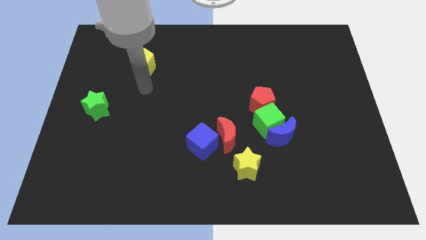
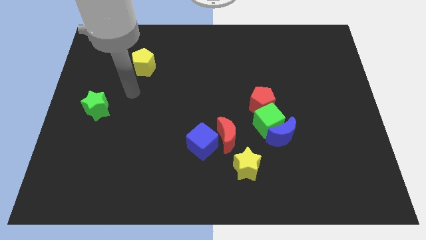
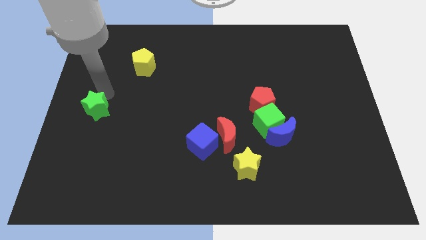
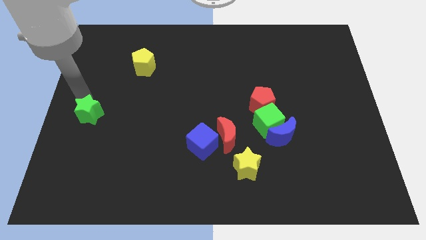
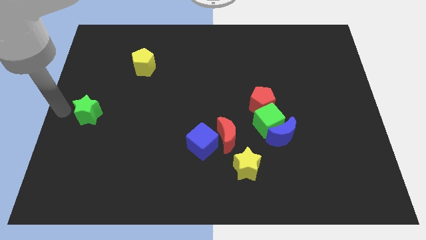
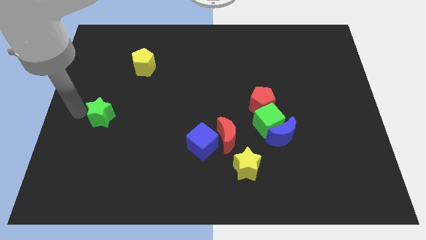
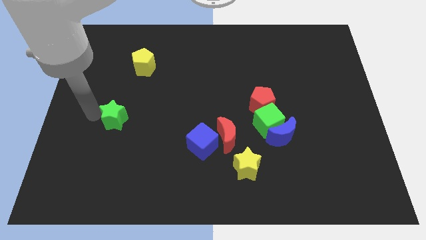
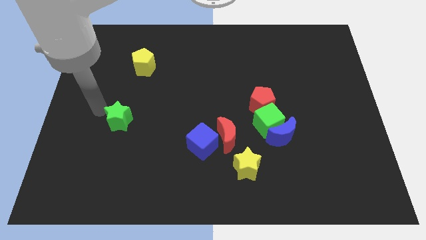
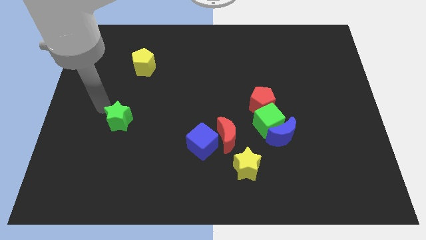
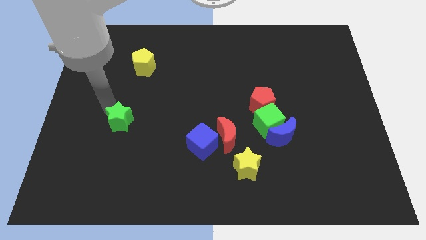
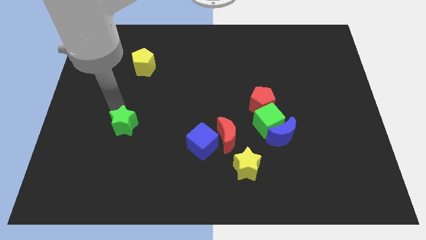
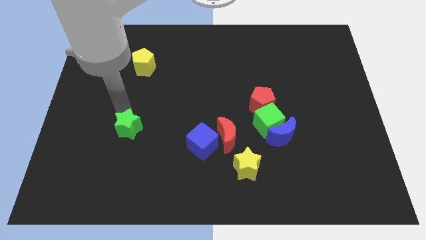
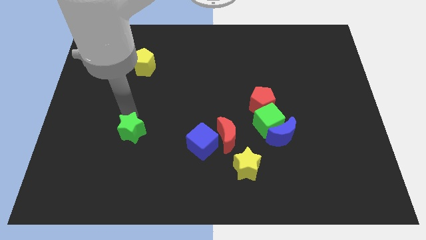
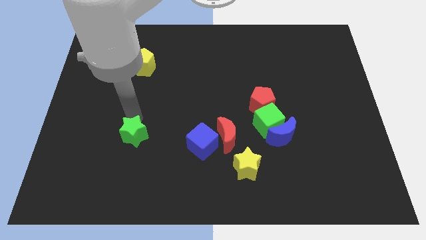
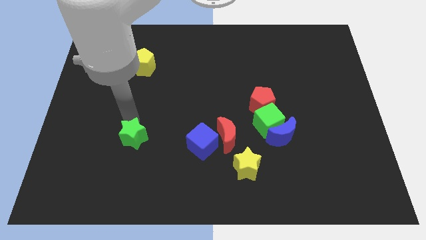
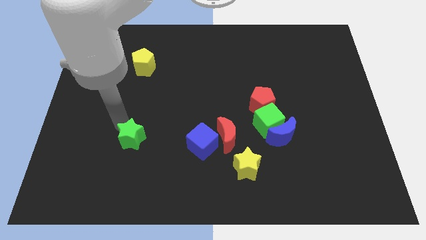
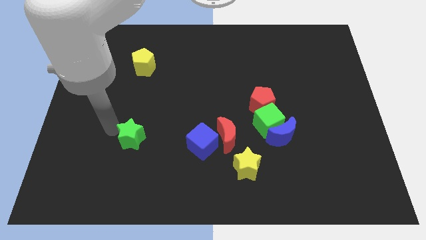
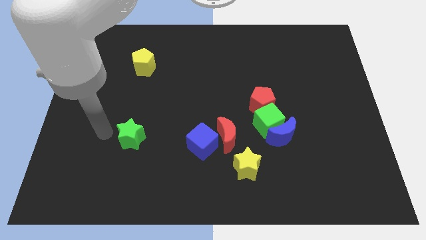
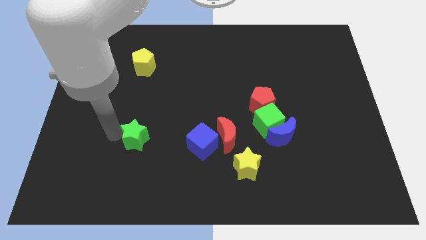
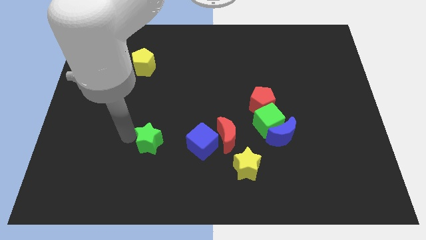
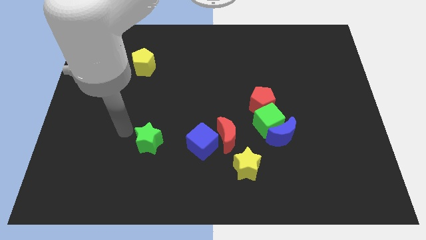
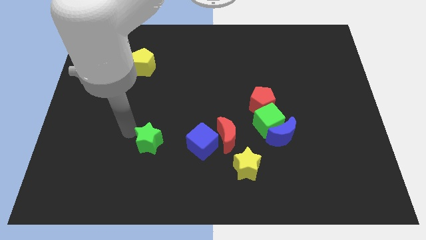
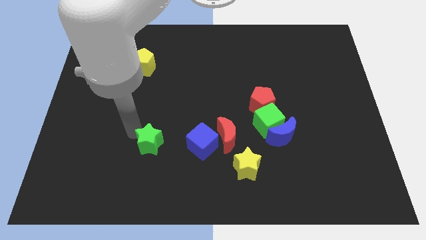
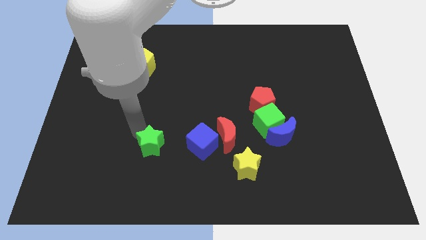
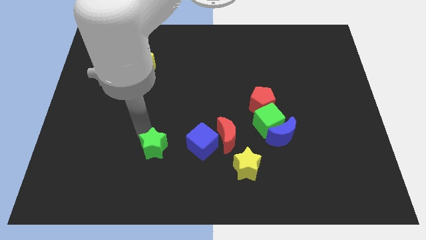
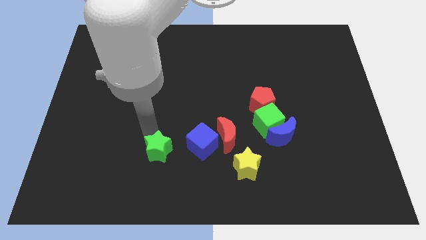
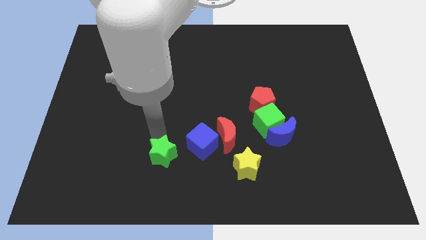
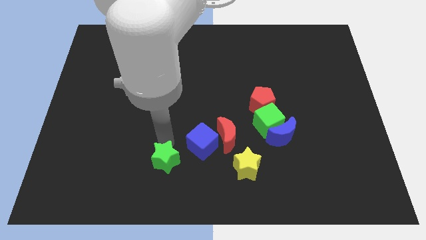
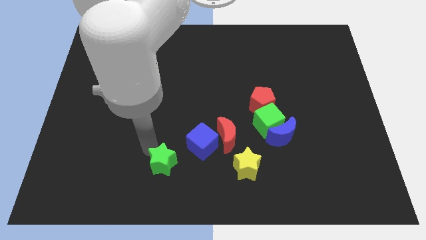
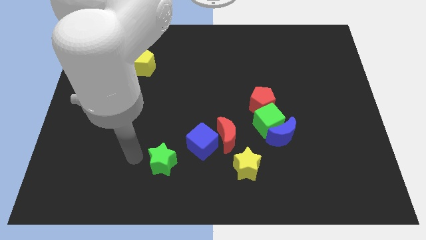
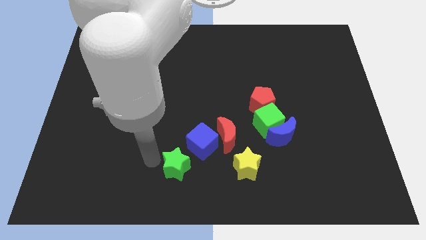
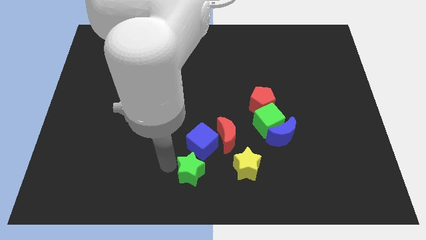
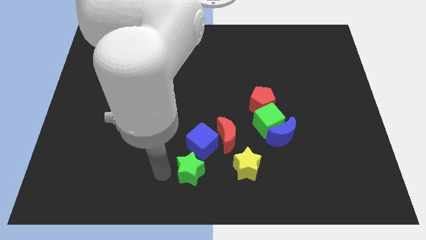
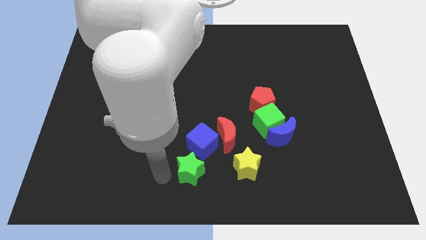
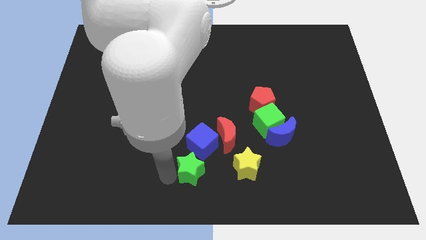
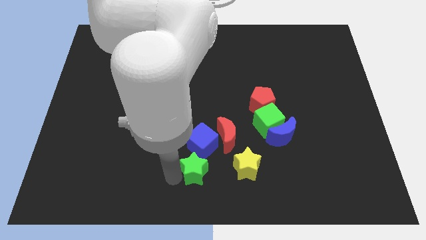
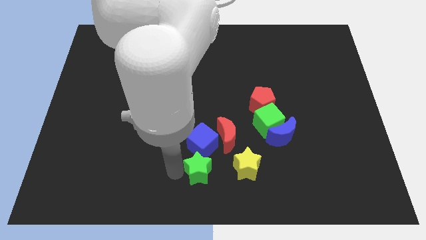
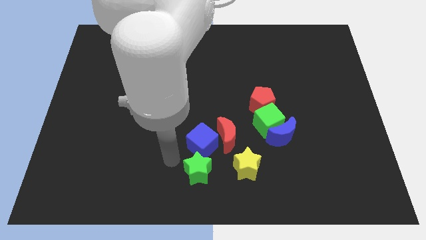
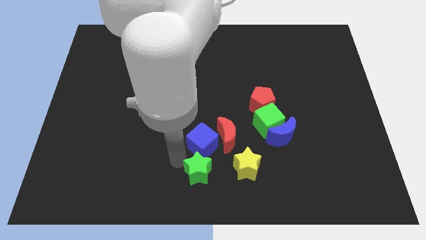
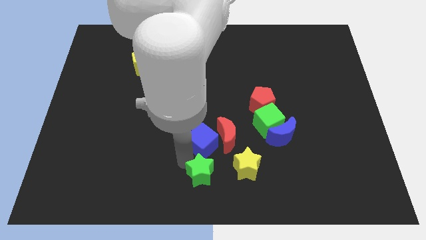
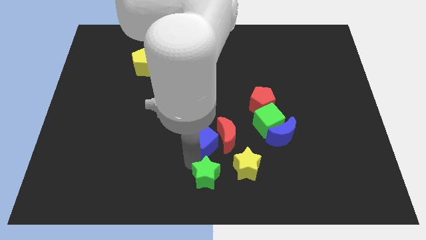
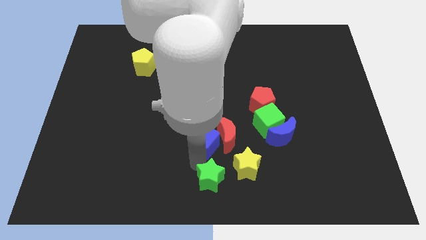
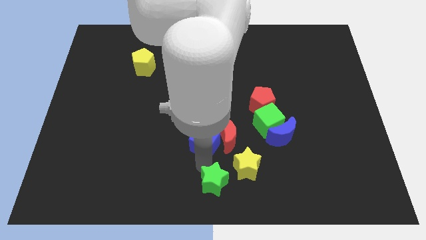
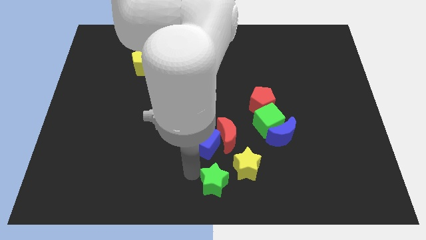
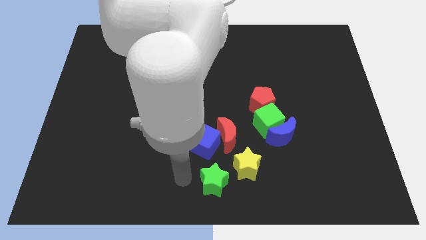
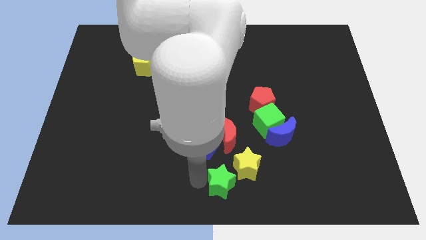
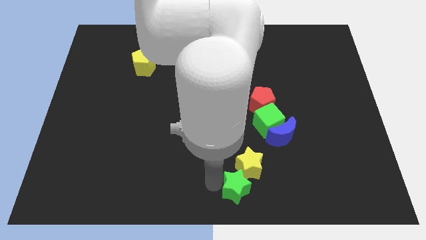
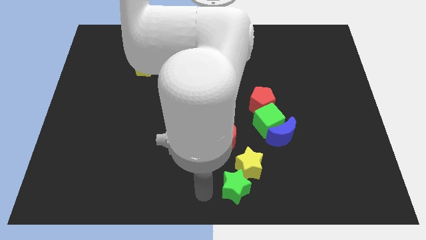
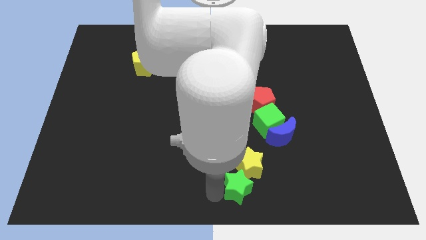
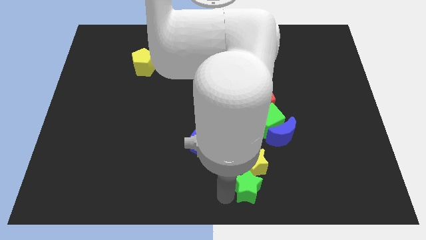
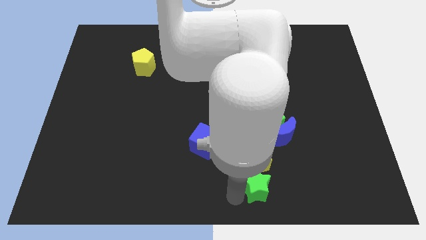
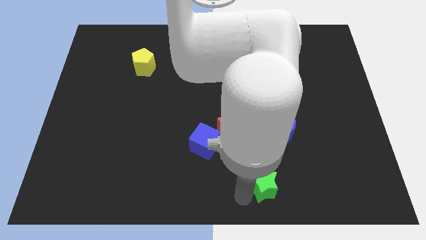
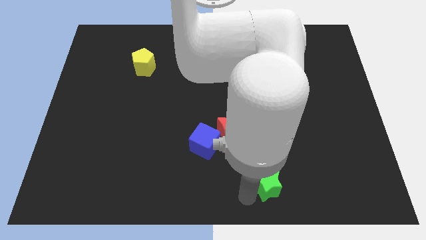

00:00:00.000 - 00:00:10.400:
put the green star to the bottom side of the blue moon

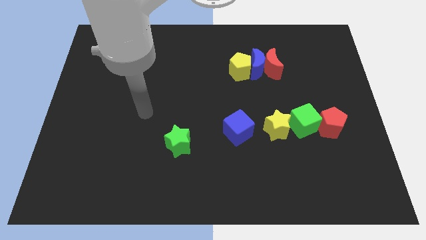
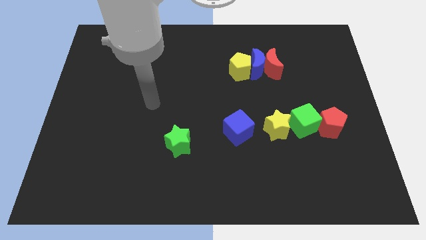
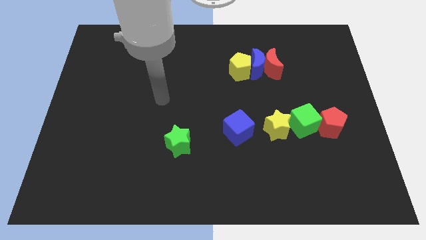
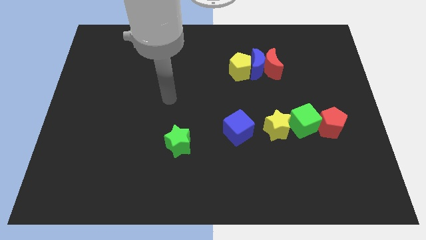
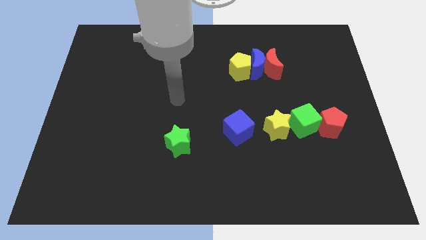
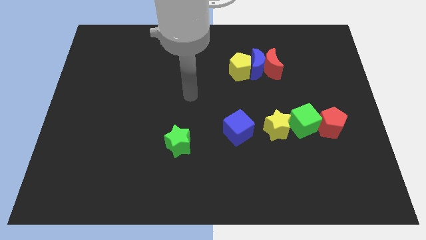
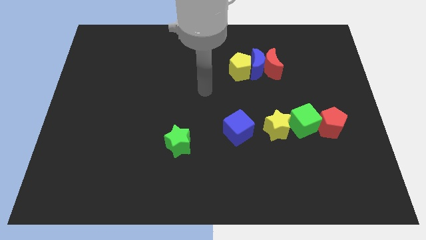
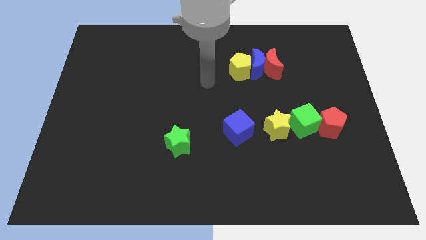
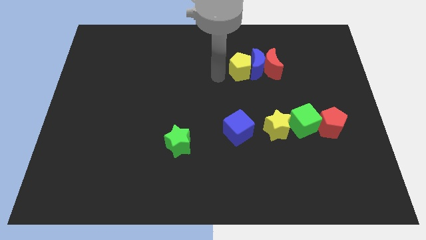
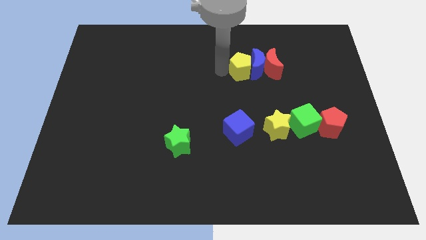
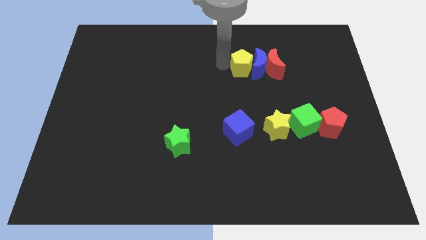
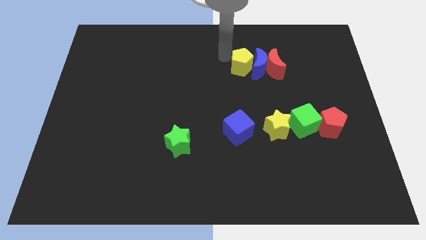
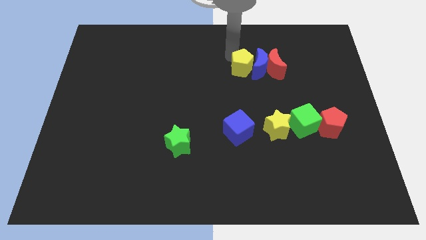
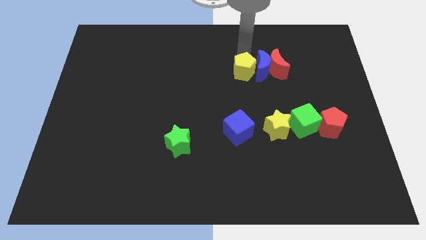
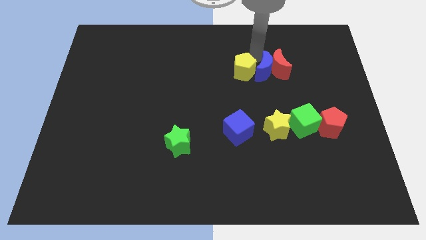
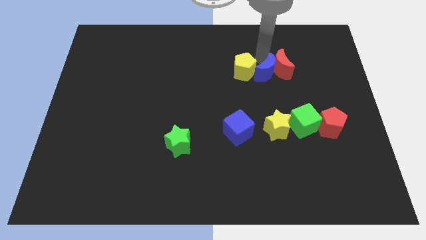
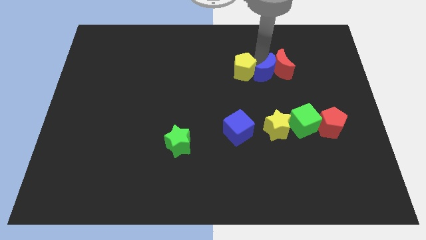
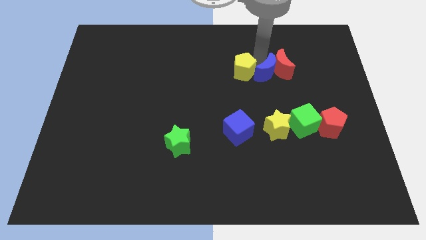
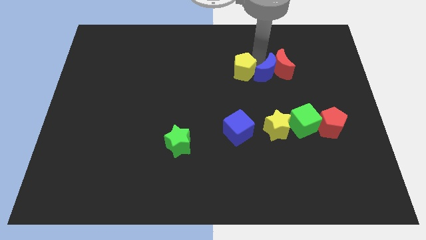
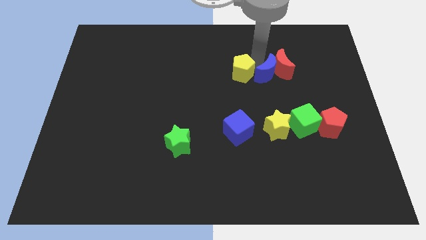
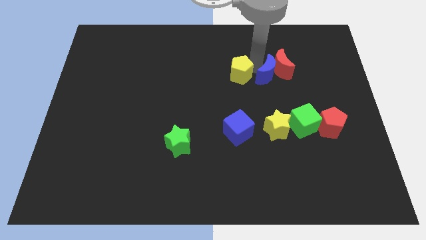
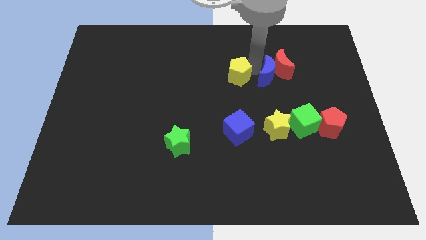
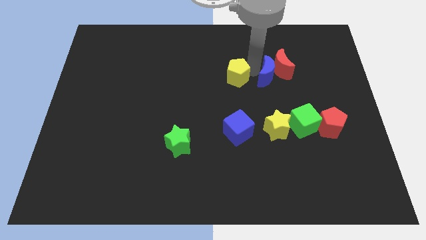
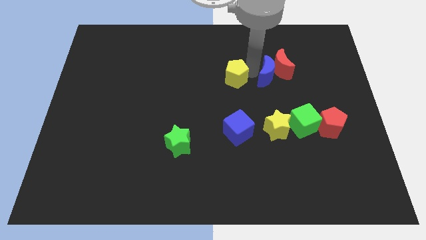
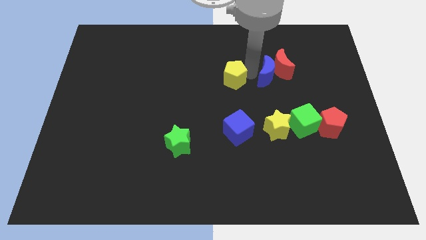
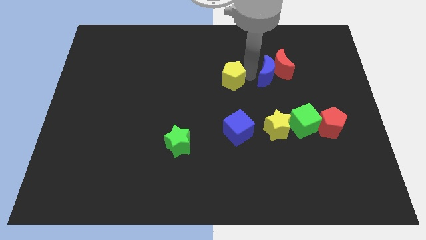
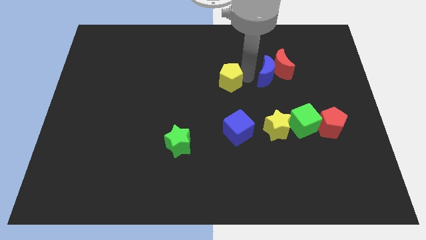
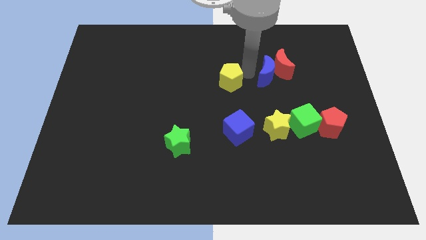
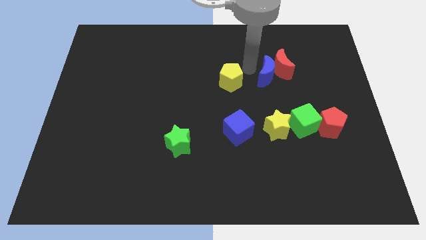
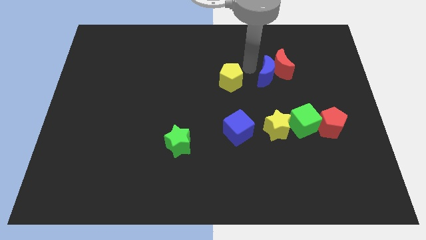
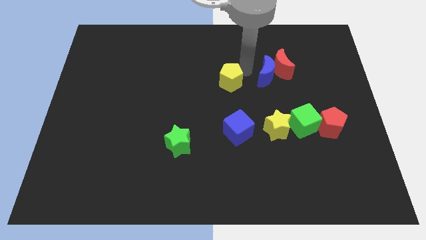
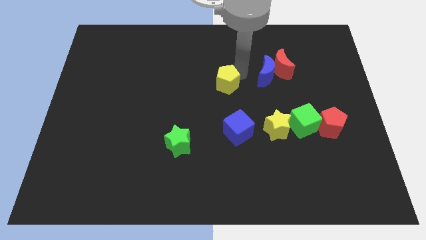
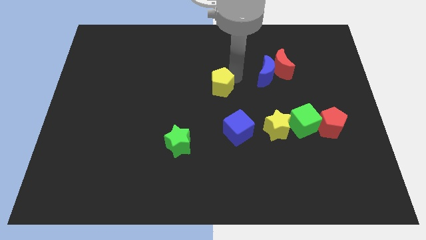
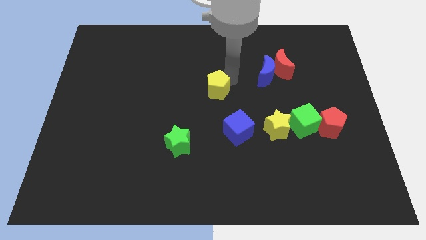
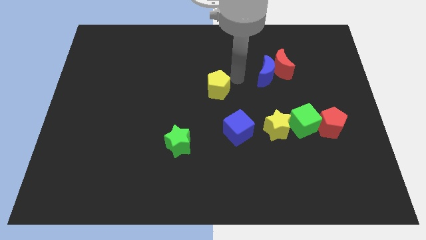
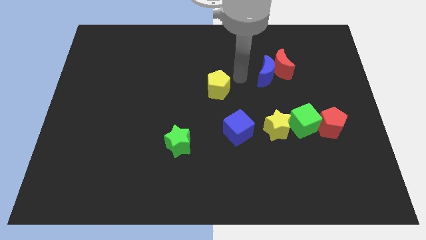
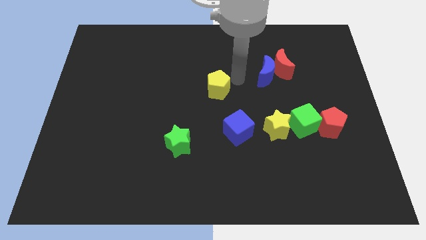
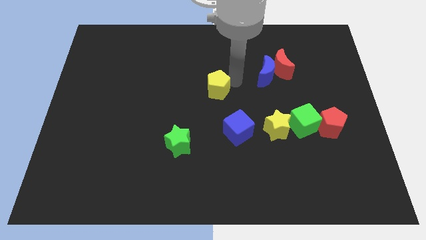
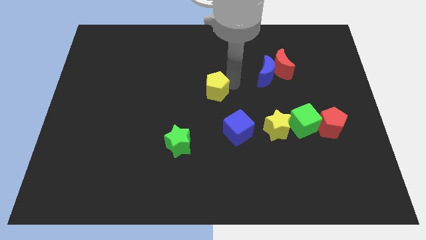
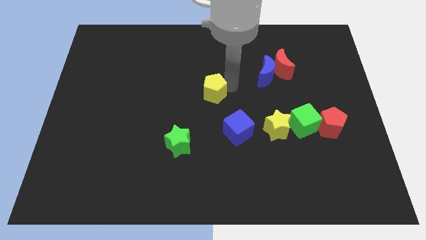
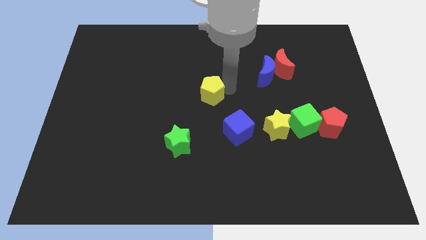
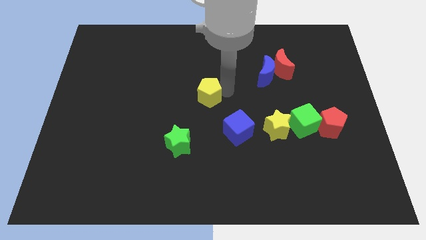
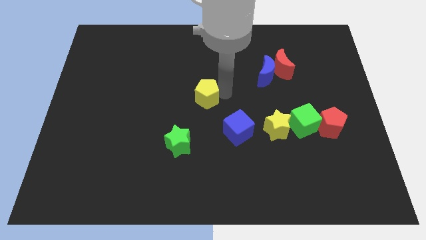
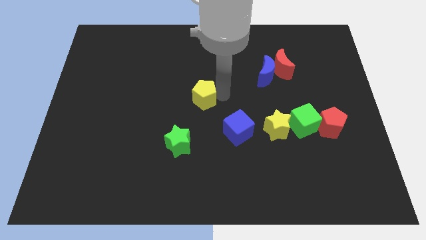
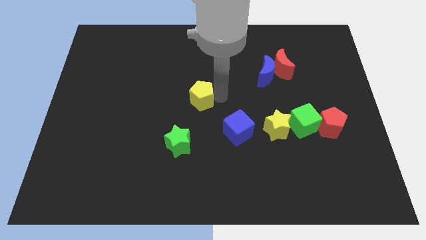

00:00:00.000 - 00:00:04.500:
push the yellow pentagon to the top of the green star
